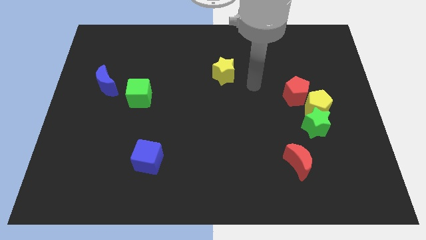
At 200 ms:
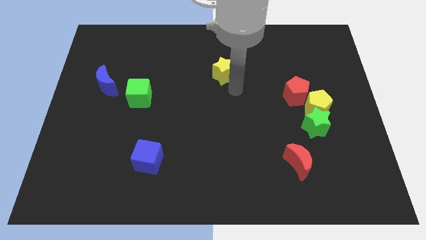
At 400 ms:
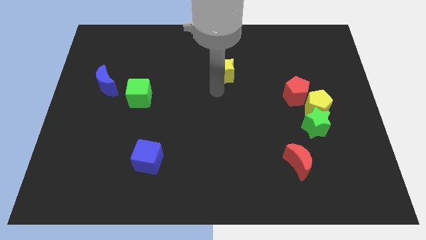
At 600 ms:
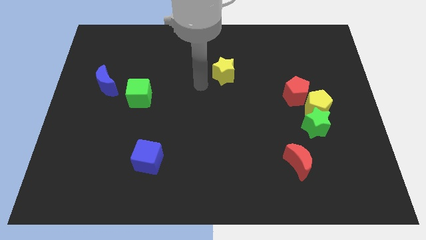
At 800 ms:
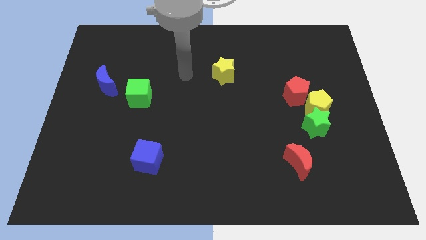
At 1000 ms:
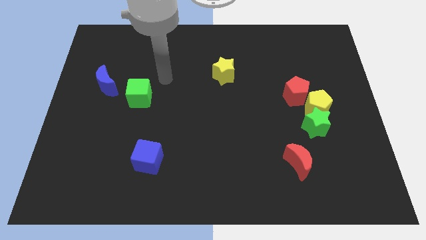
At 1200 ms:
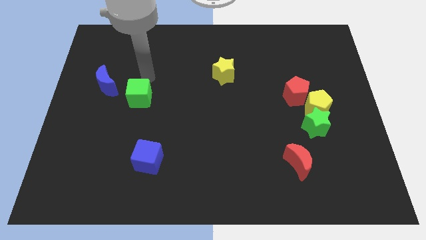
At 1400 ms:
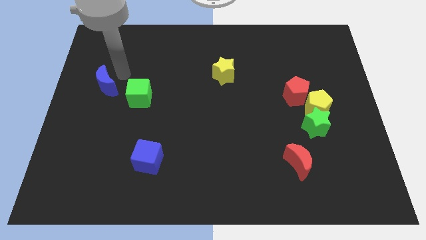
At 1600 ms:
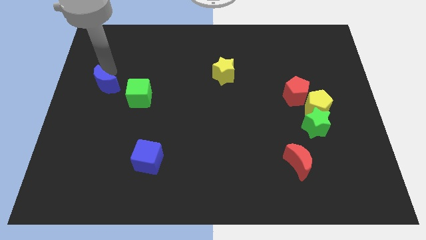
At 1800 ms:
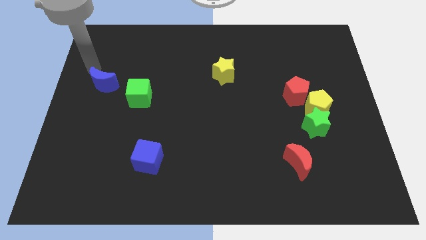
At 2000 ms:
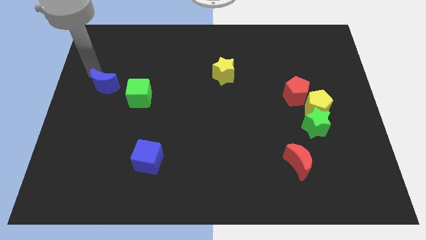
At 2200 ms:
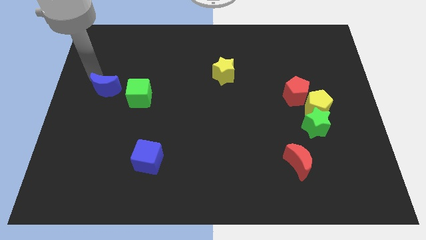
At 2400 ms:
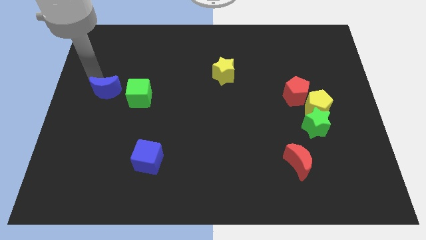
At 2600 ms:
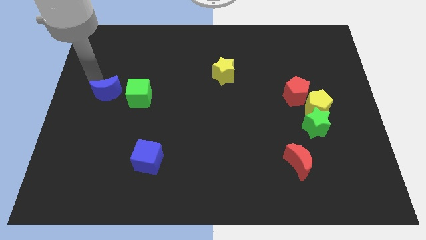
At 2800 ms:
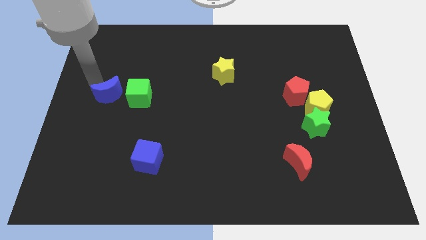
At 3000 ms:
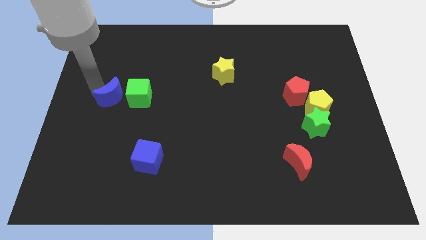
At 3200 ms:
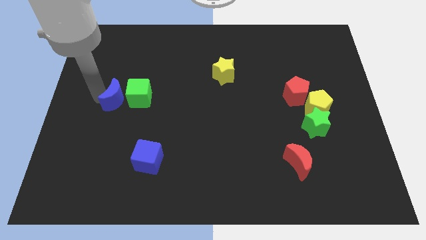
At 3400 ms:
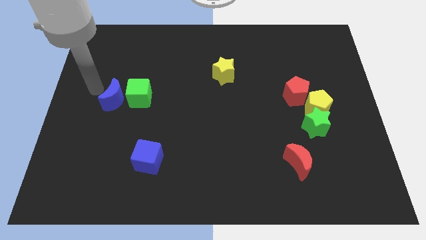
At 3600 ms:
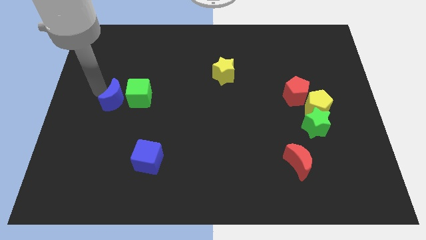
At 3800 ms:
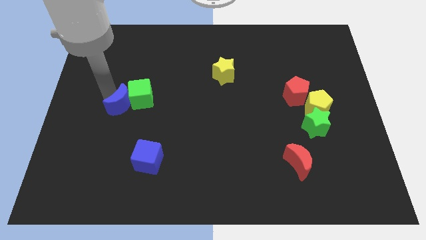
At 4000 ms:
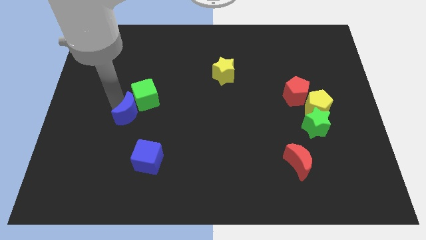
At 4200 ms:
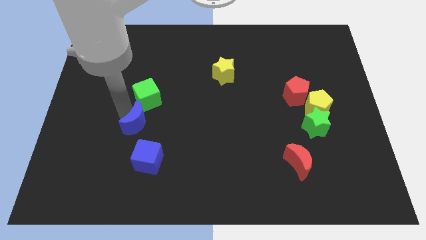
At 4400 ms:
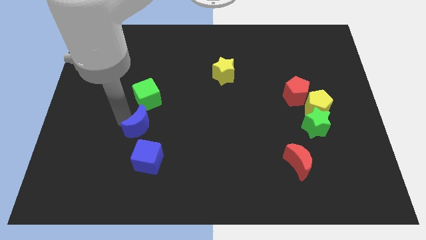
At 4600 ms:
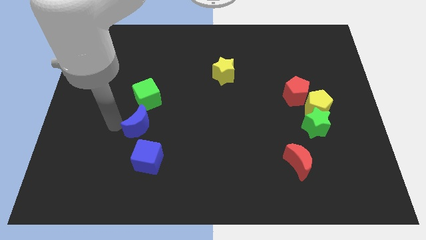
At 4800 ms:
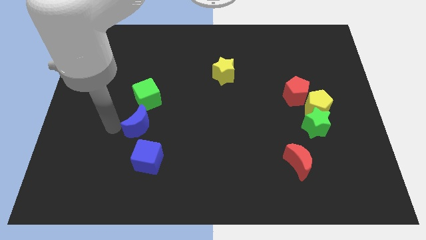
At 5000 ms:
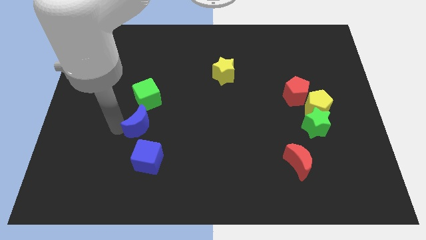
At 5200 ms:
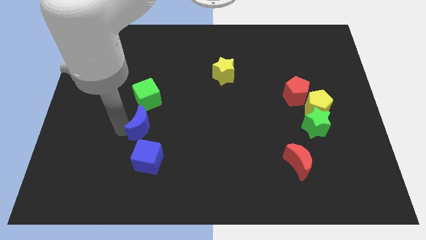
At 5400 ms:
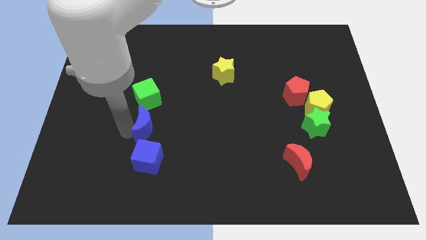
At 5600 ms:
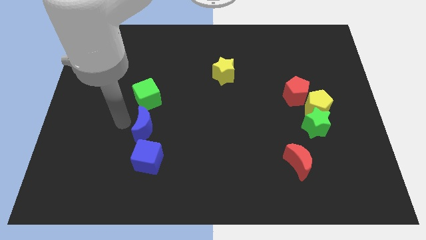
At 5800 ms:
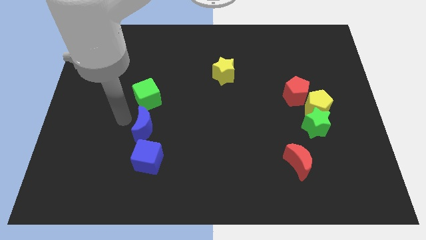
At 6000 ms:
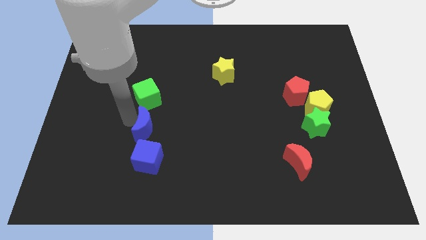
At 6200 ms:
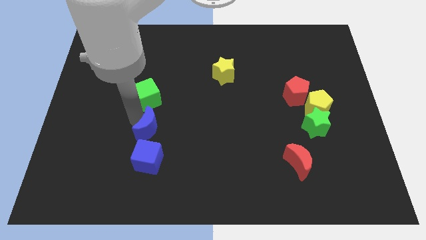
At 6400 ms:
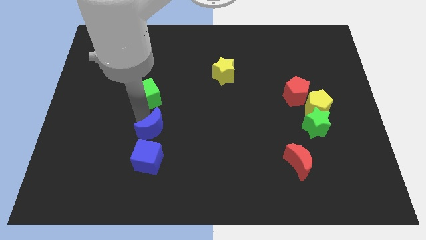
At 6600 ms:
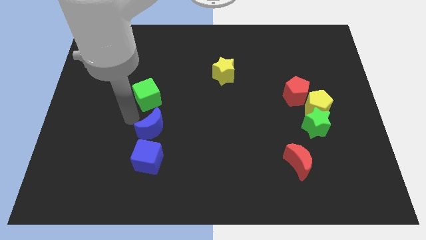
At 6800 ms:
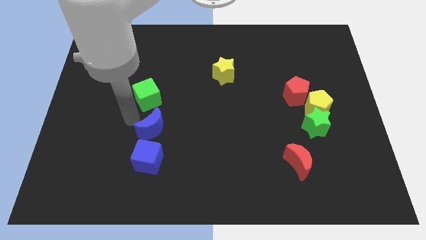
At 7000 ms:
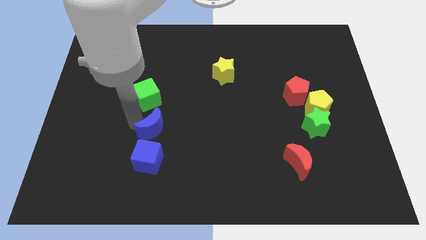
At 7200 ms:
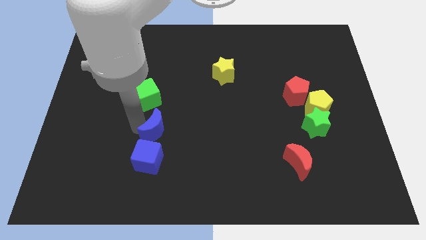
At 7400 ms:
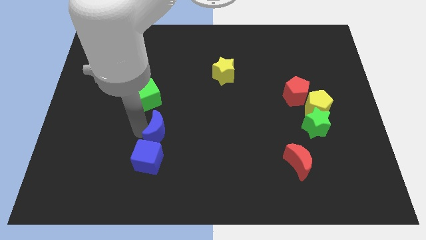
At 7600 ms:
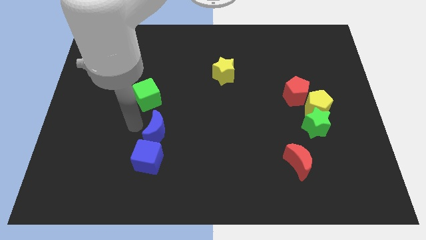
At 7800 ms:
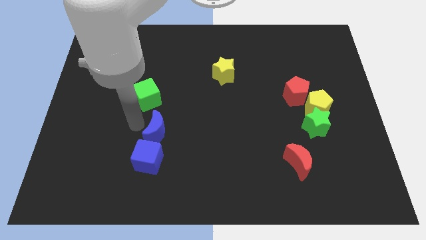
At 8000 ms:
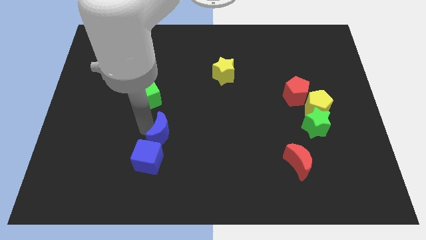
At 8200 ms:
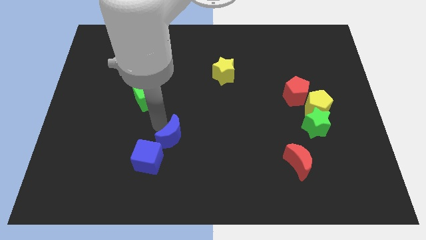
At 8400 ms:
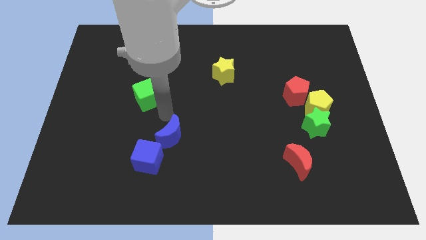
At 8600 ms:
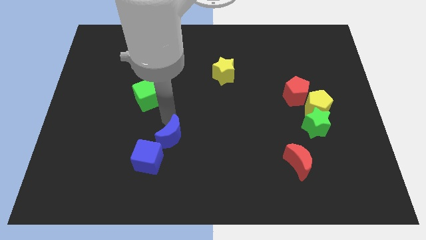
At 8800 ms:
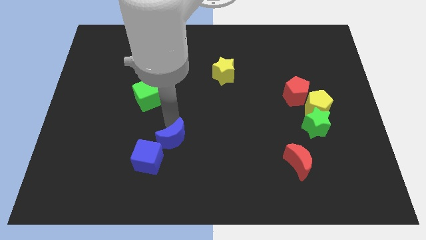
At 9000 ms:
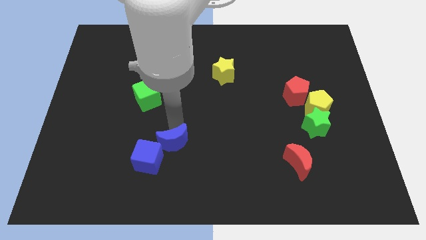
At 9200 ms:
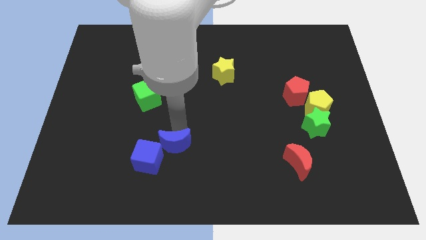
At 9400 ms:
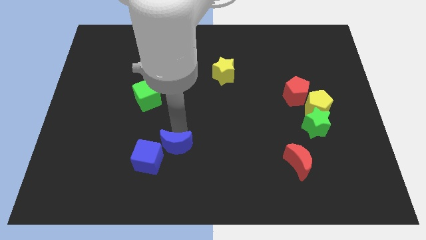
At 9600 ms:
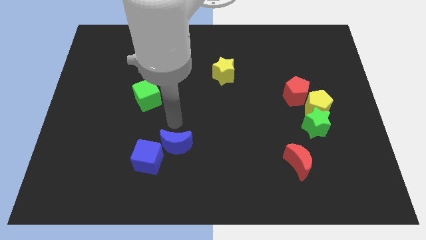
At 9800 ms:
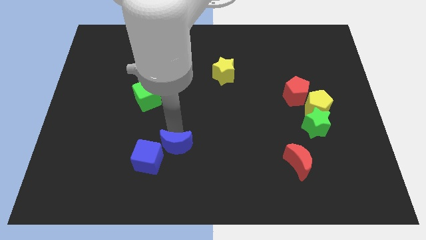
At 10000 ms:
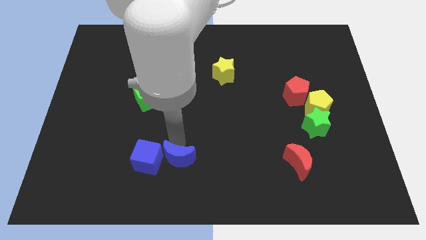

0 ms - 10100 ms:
push the blue moon to the bottom right of the blue cube
